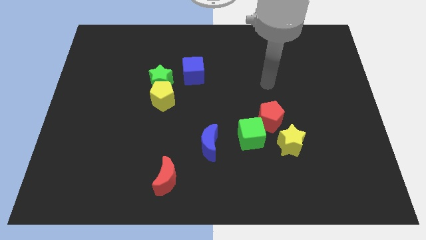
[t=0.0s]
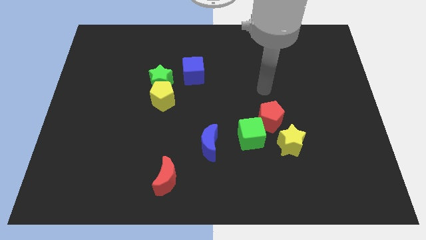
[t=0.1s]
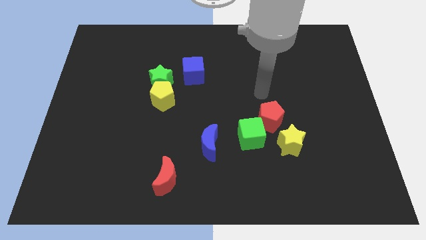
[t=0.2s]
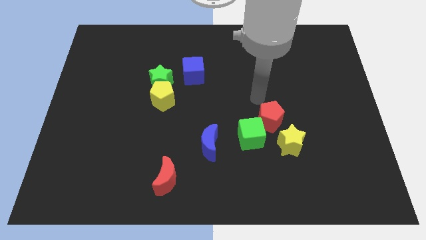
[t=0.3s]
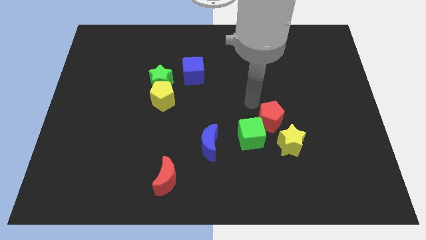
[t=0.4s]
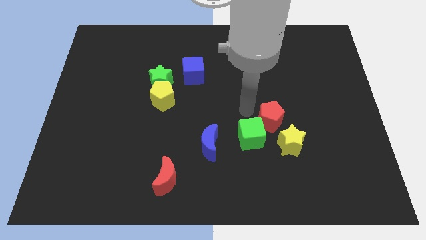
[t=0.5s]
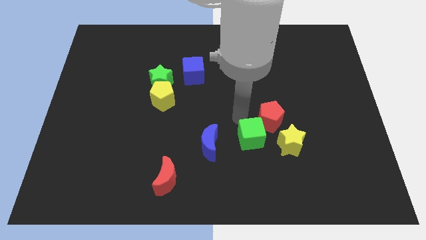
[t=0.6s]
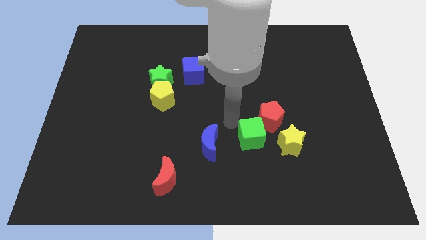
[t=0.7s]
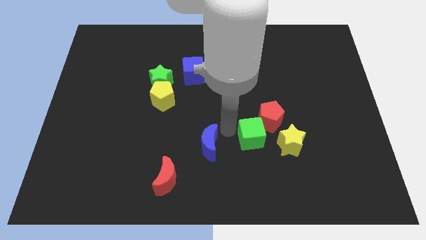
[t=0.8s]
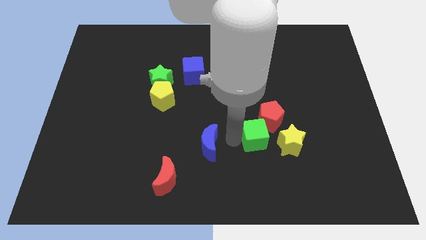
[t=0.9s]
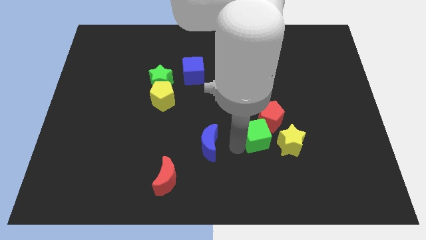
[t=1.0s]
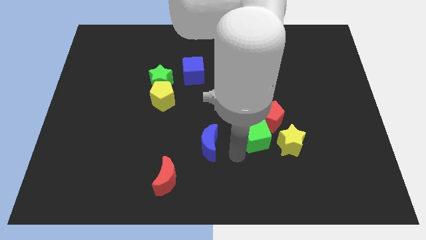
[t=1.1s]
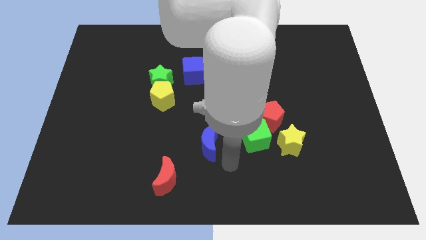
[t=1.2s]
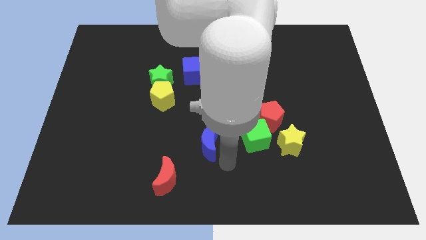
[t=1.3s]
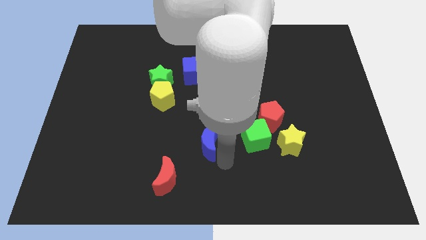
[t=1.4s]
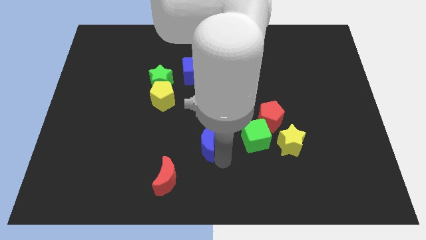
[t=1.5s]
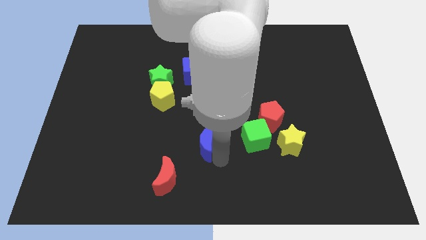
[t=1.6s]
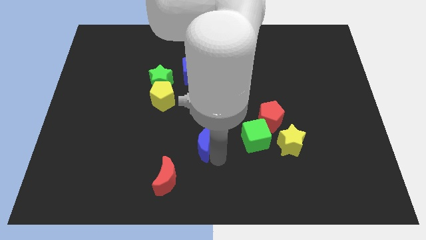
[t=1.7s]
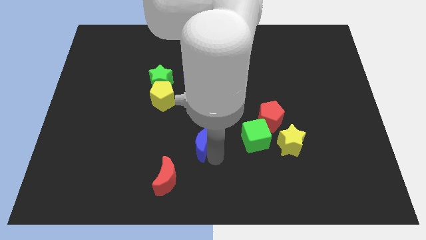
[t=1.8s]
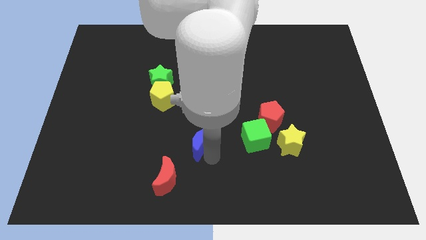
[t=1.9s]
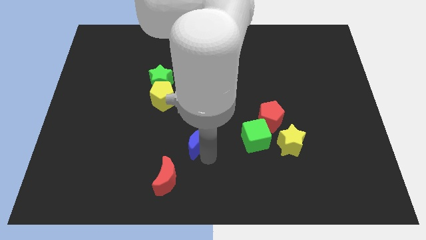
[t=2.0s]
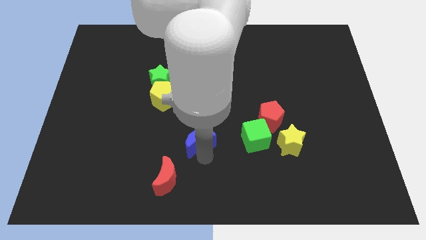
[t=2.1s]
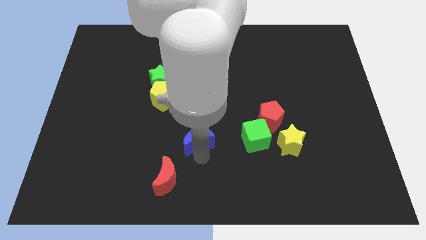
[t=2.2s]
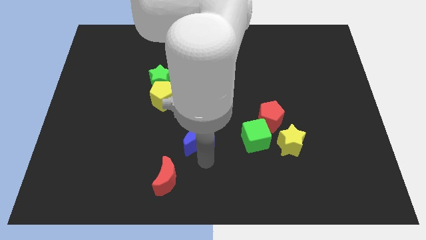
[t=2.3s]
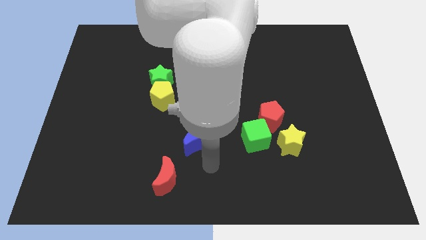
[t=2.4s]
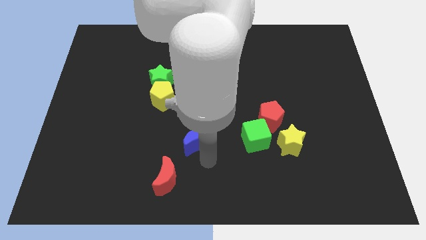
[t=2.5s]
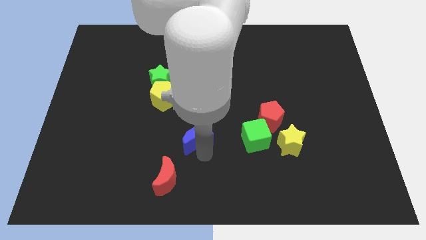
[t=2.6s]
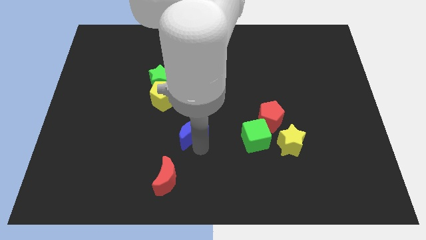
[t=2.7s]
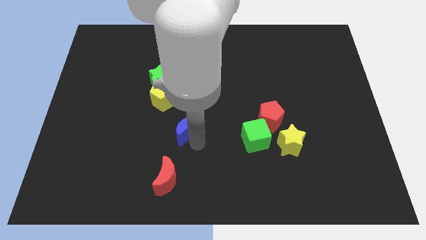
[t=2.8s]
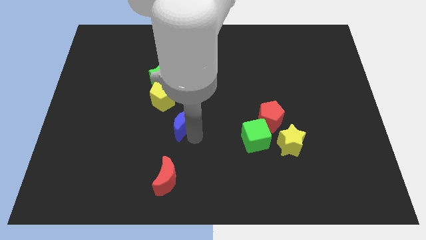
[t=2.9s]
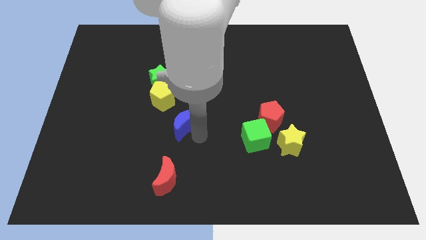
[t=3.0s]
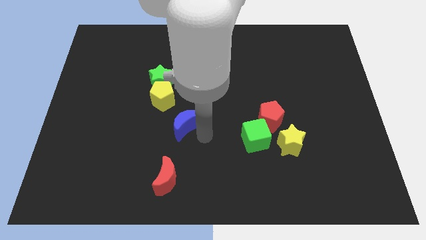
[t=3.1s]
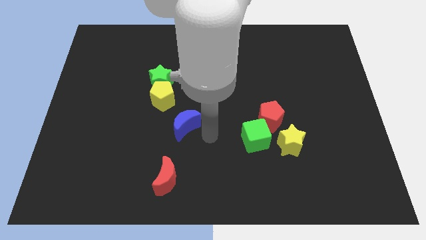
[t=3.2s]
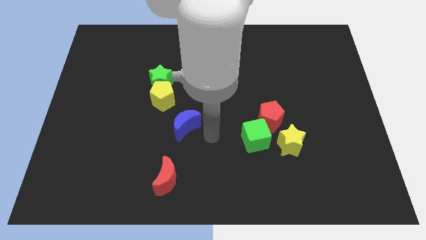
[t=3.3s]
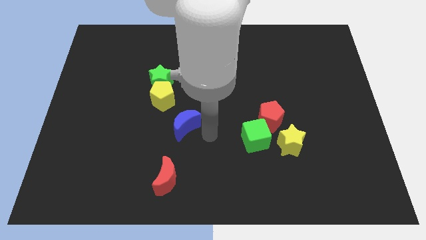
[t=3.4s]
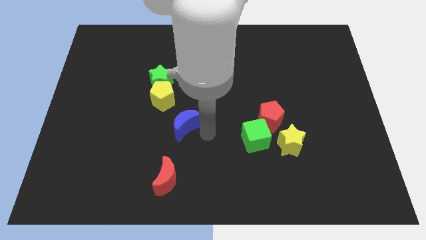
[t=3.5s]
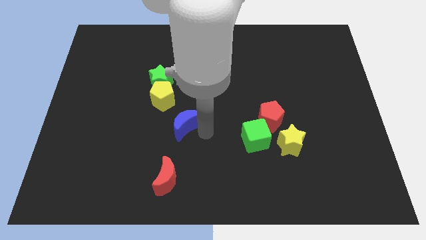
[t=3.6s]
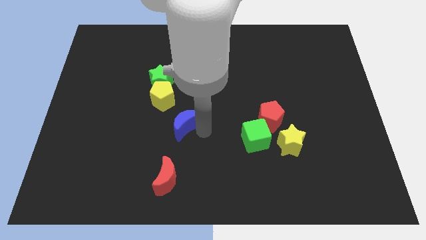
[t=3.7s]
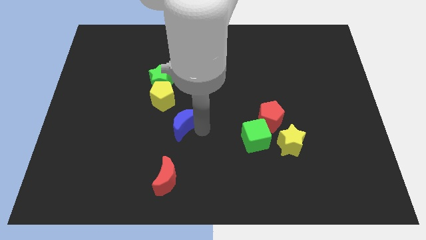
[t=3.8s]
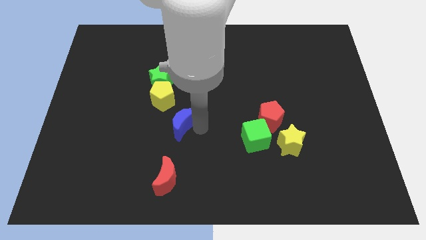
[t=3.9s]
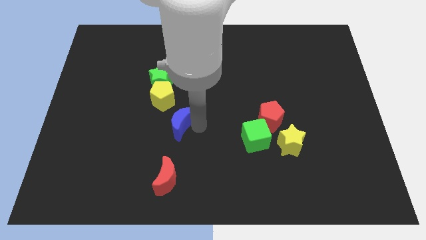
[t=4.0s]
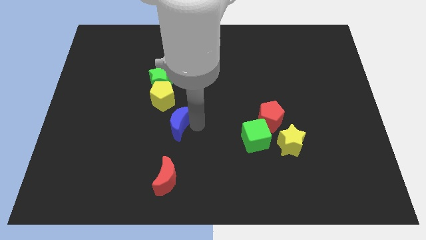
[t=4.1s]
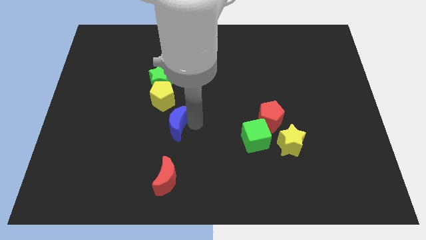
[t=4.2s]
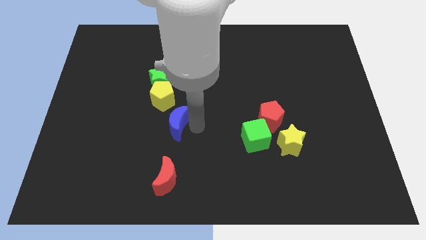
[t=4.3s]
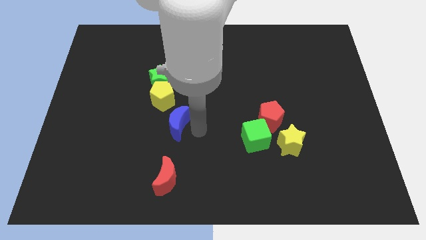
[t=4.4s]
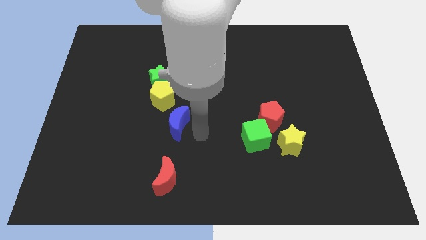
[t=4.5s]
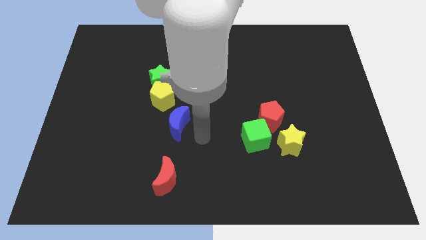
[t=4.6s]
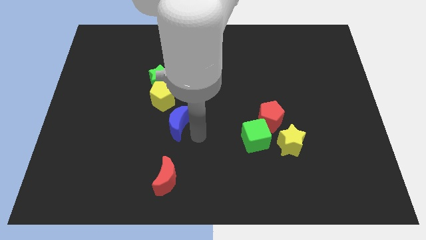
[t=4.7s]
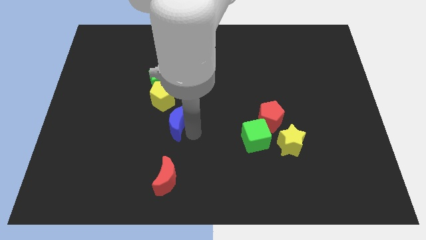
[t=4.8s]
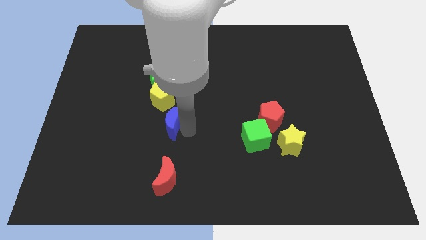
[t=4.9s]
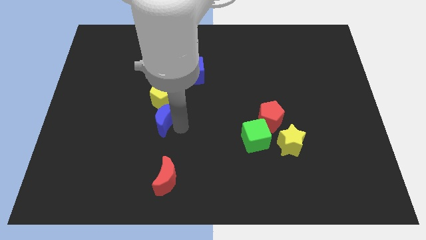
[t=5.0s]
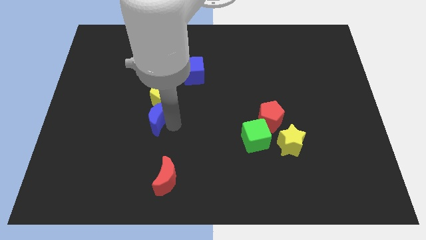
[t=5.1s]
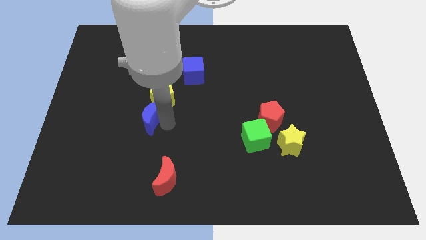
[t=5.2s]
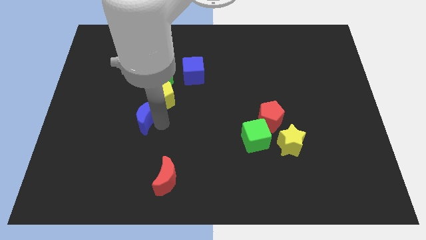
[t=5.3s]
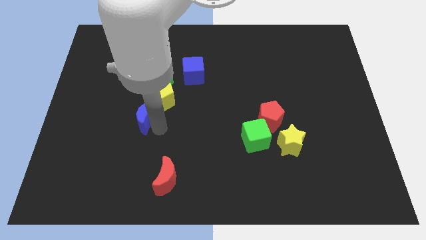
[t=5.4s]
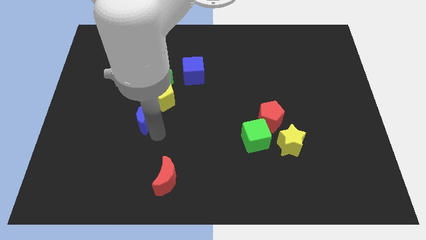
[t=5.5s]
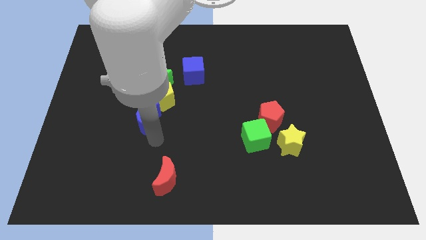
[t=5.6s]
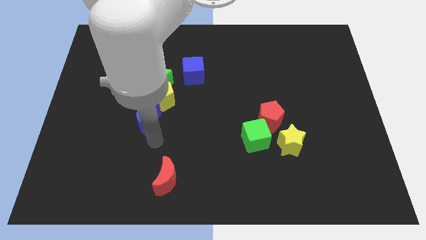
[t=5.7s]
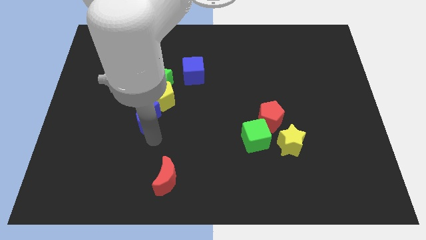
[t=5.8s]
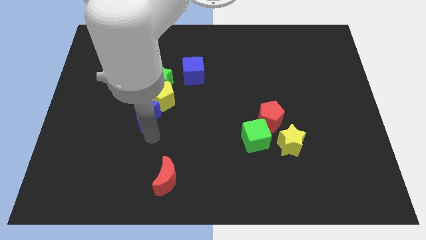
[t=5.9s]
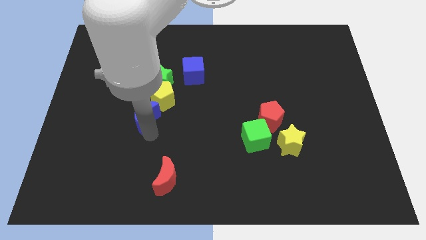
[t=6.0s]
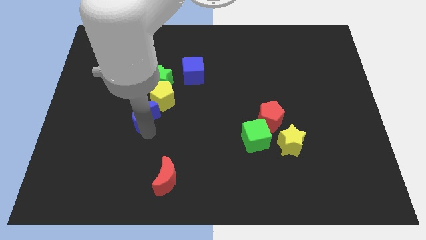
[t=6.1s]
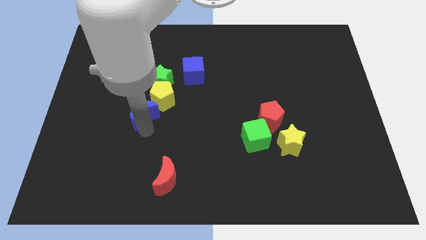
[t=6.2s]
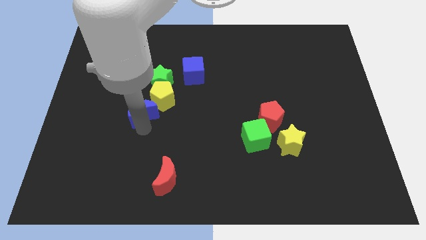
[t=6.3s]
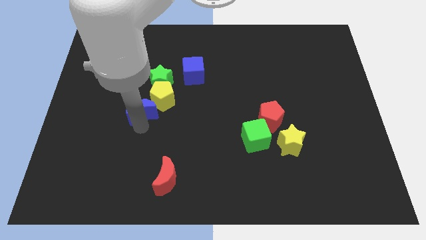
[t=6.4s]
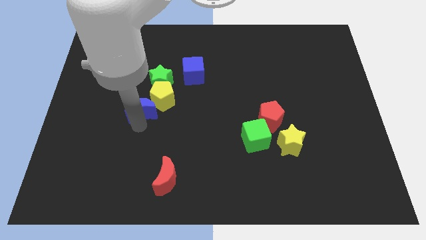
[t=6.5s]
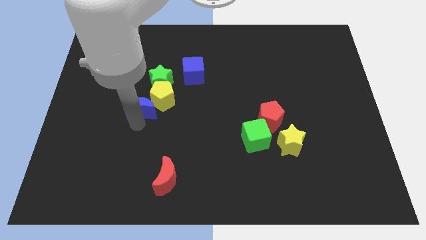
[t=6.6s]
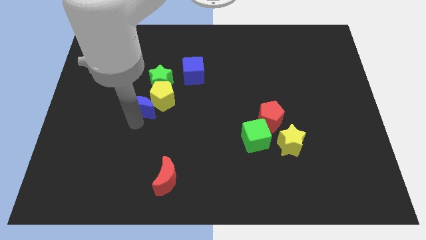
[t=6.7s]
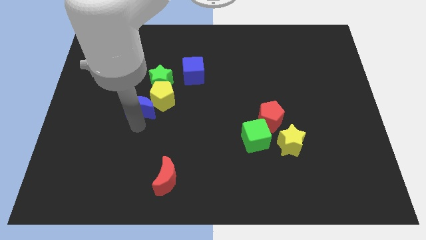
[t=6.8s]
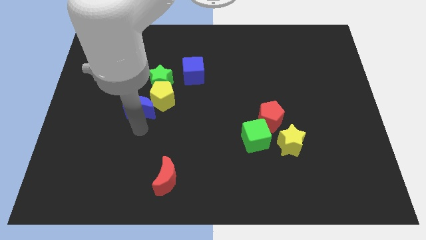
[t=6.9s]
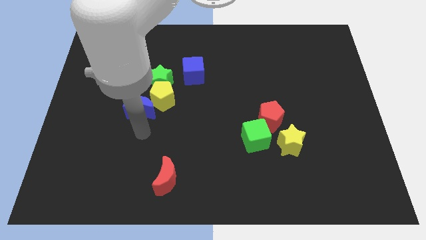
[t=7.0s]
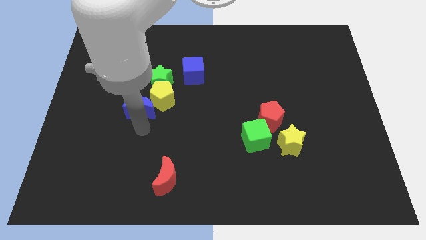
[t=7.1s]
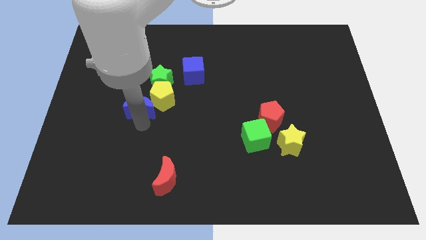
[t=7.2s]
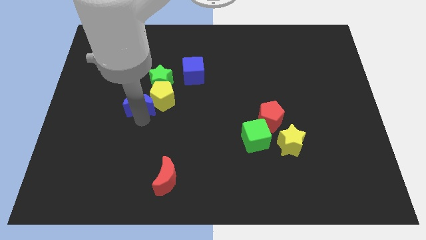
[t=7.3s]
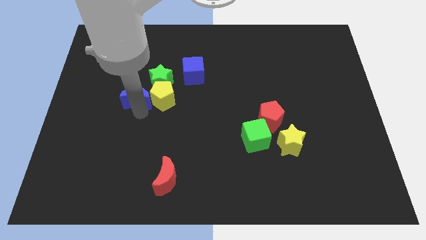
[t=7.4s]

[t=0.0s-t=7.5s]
move the blue moon to the top left of the yellow pentagon
